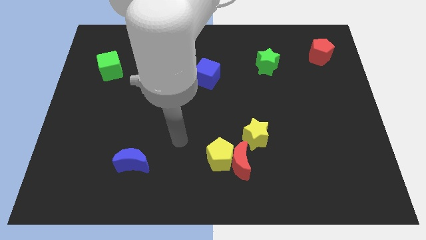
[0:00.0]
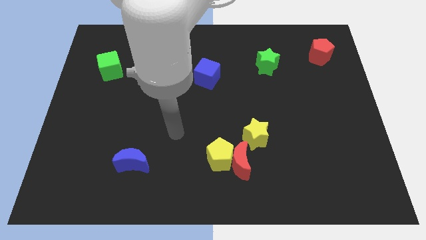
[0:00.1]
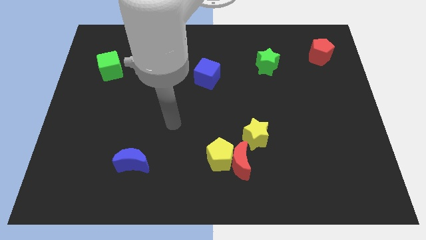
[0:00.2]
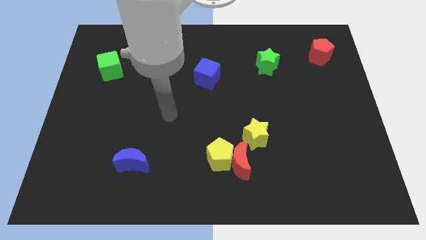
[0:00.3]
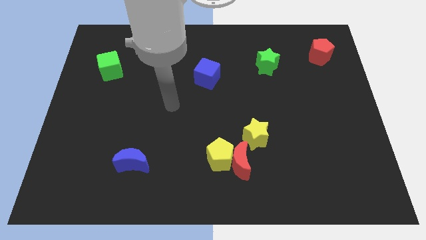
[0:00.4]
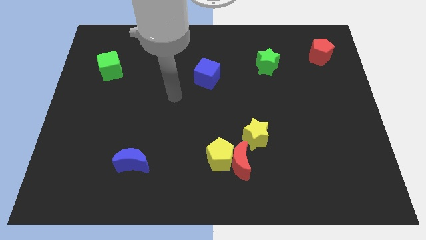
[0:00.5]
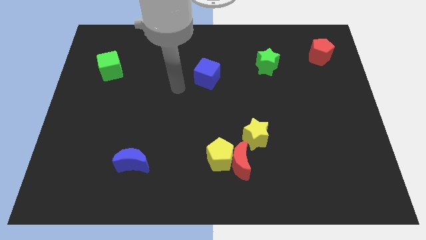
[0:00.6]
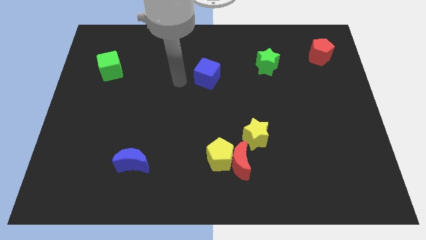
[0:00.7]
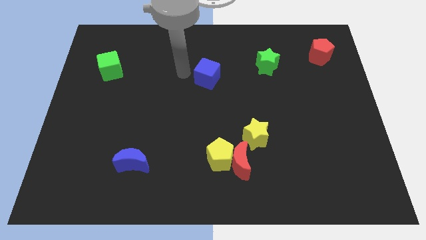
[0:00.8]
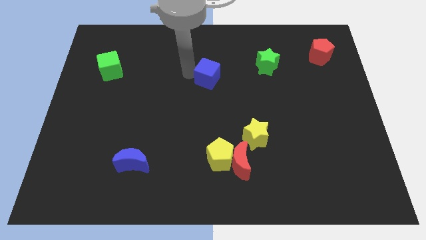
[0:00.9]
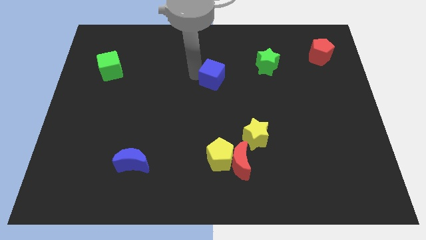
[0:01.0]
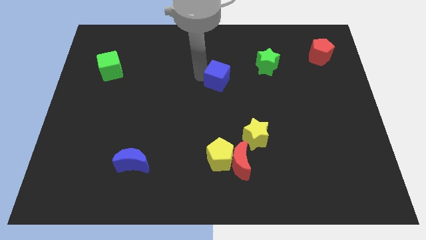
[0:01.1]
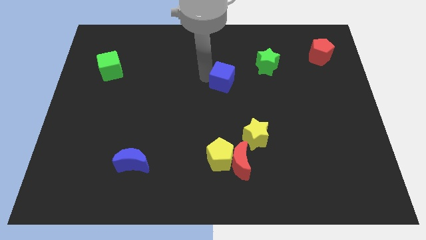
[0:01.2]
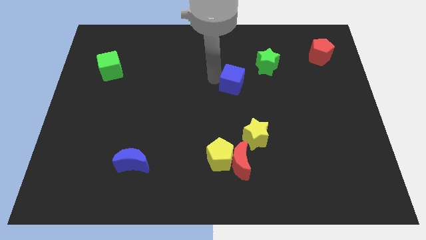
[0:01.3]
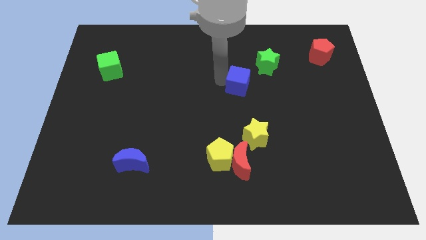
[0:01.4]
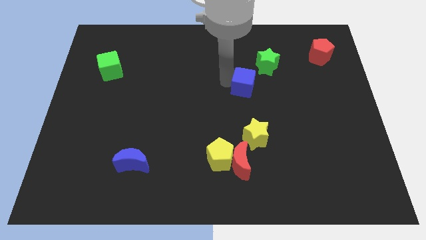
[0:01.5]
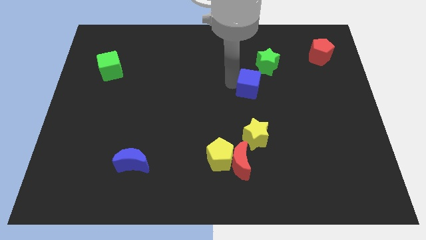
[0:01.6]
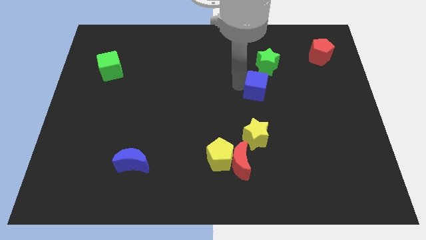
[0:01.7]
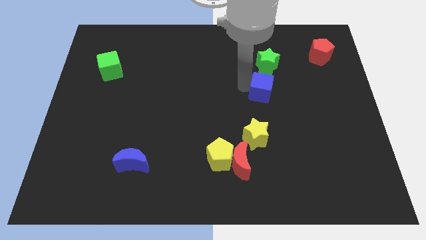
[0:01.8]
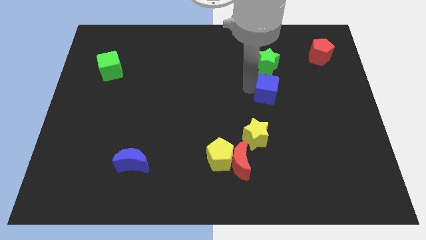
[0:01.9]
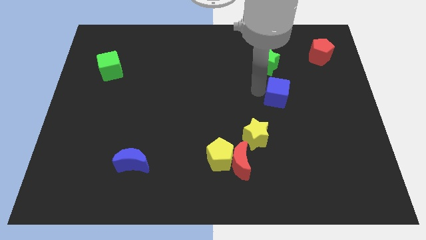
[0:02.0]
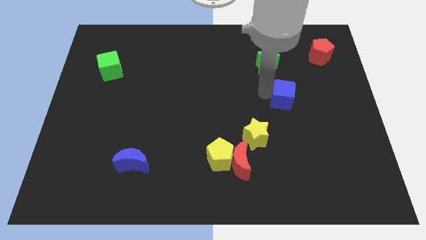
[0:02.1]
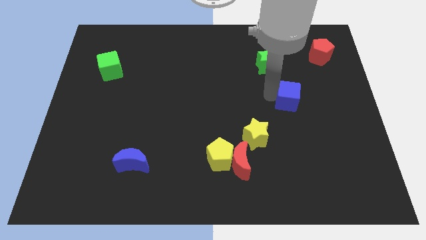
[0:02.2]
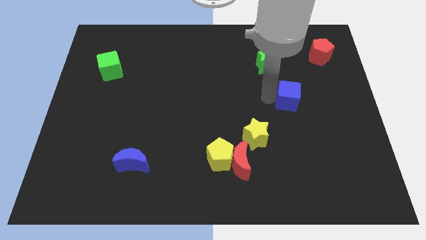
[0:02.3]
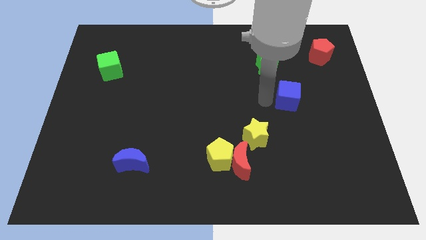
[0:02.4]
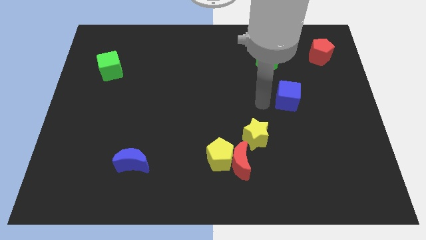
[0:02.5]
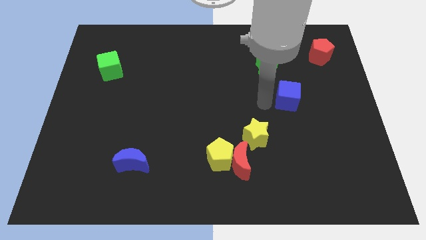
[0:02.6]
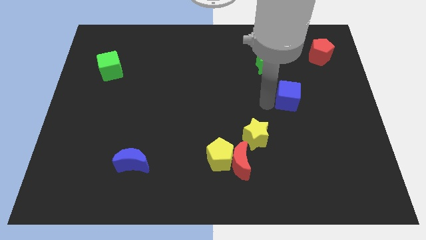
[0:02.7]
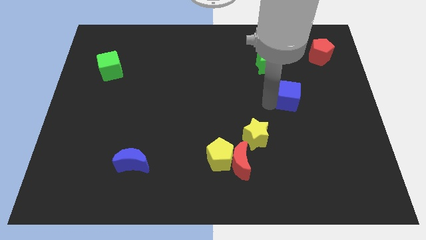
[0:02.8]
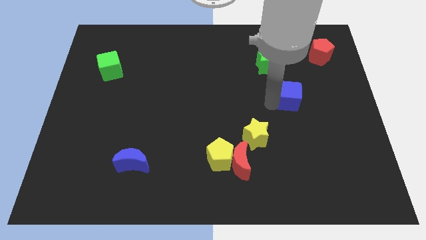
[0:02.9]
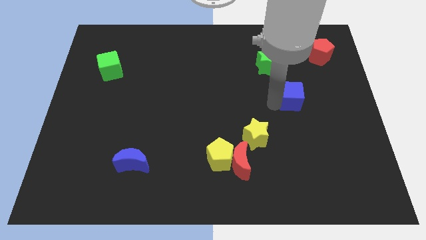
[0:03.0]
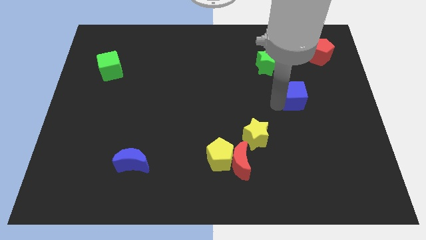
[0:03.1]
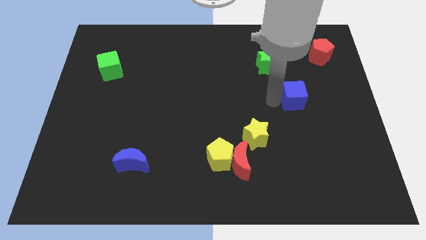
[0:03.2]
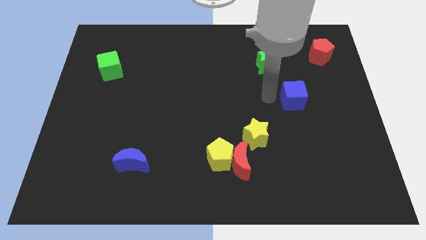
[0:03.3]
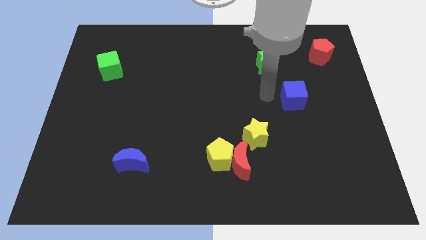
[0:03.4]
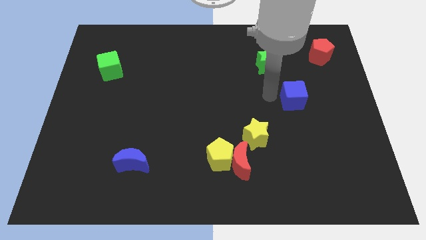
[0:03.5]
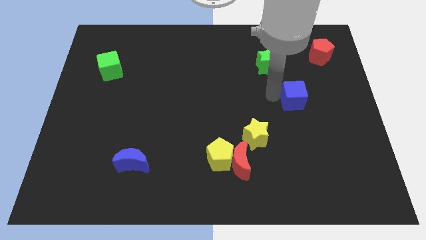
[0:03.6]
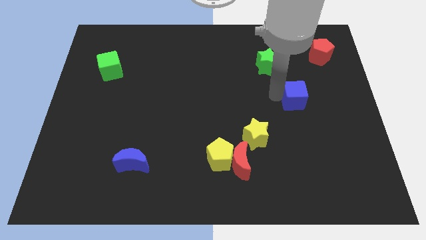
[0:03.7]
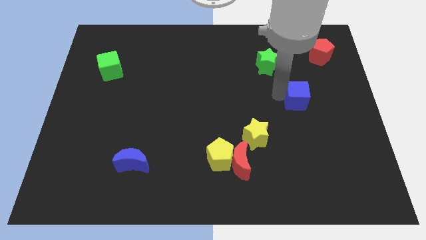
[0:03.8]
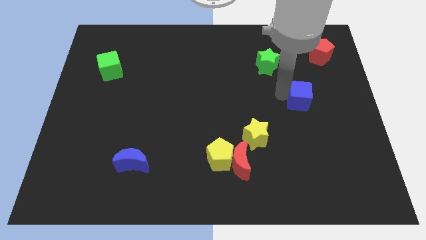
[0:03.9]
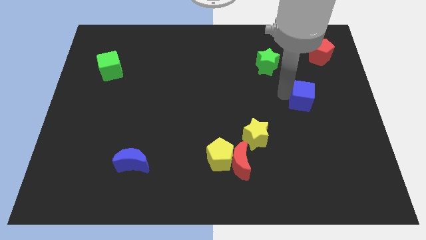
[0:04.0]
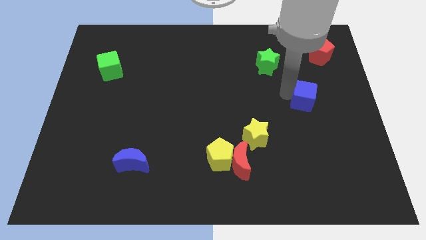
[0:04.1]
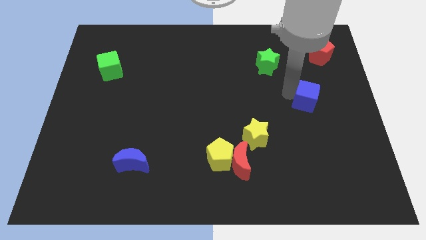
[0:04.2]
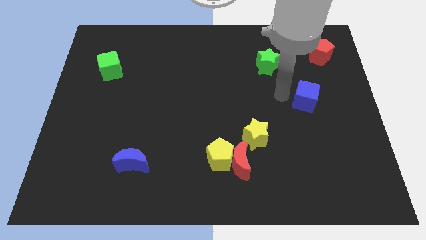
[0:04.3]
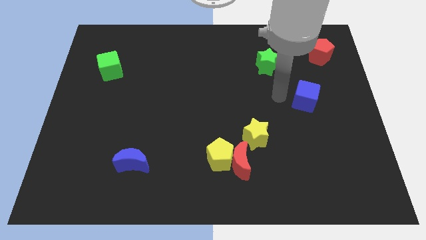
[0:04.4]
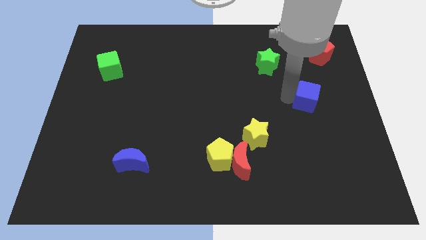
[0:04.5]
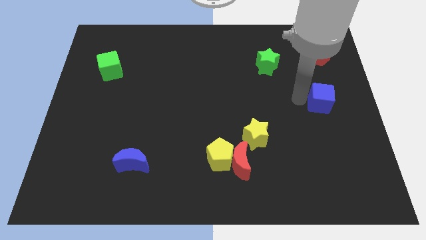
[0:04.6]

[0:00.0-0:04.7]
move the blue cube to the right side

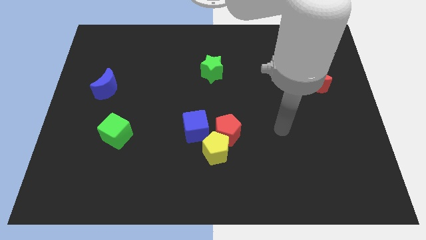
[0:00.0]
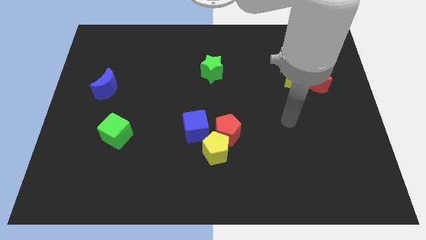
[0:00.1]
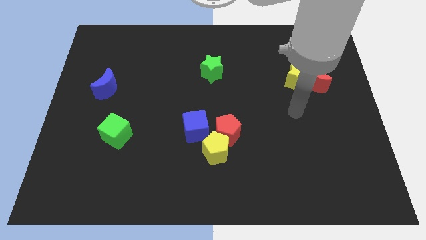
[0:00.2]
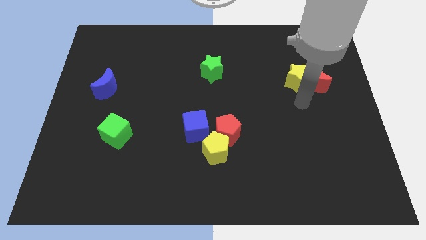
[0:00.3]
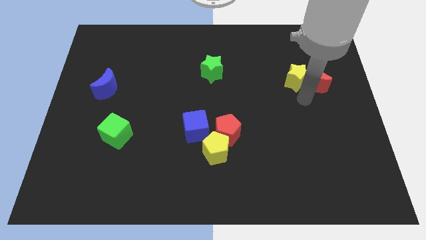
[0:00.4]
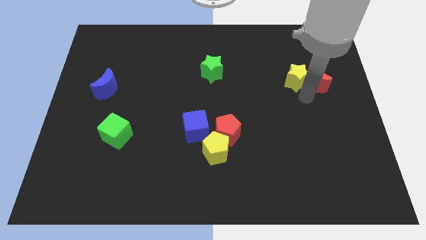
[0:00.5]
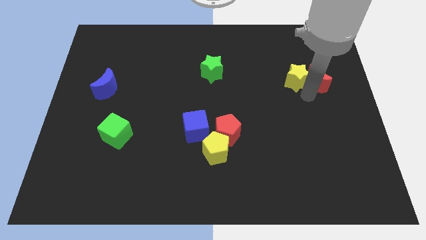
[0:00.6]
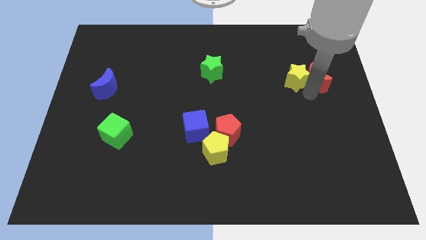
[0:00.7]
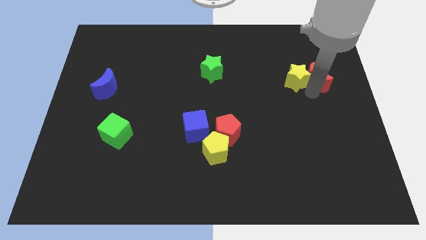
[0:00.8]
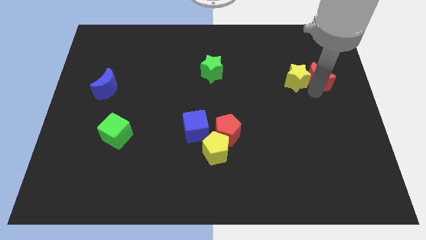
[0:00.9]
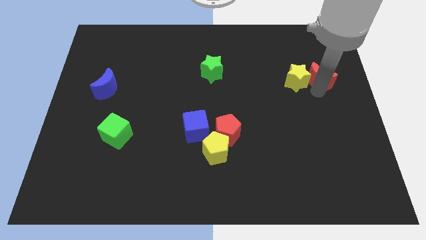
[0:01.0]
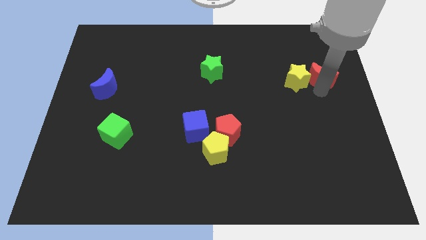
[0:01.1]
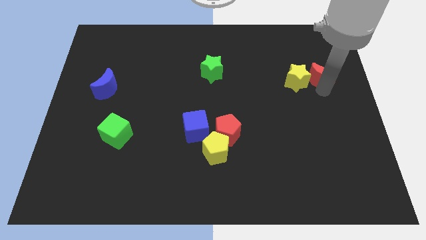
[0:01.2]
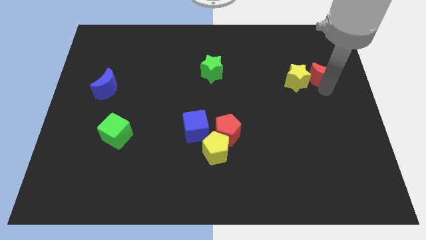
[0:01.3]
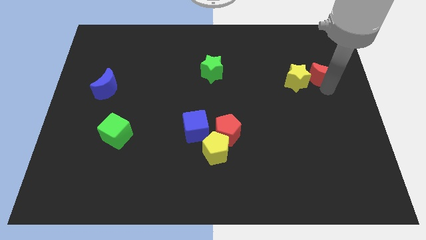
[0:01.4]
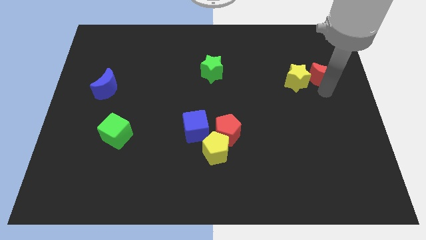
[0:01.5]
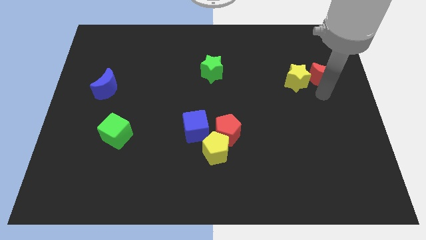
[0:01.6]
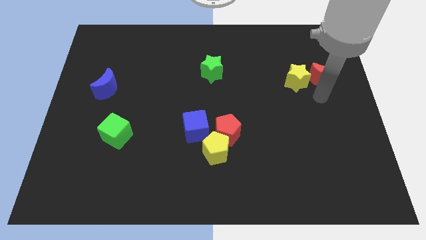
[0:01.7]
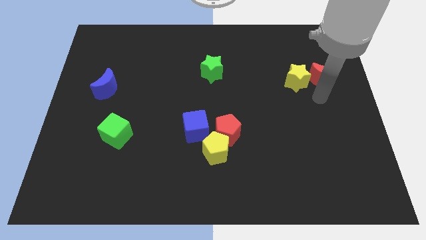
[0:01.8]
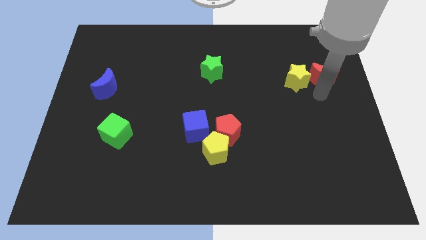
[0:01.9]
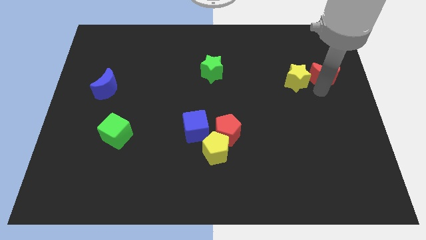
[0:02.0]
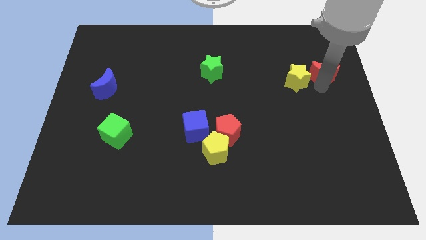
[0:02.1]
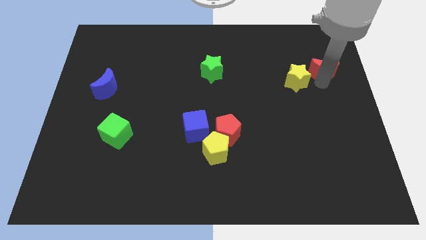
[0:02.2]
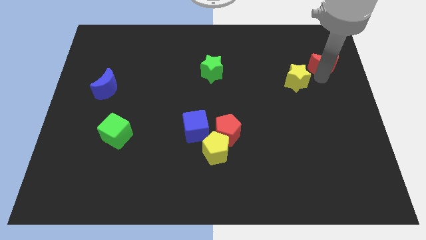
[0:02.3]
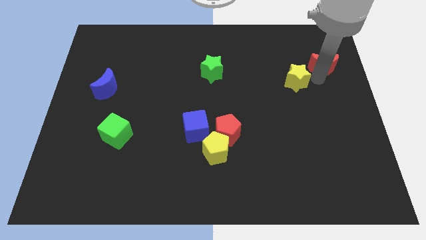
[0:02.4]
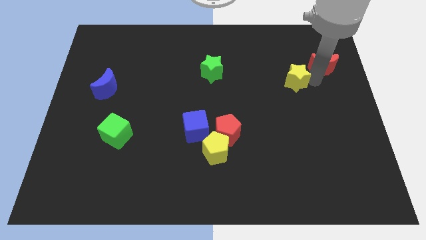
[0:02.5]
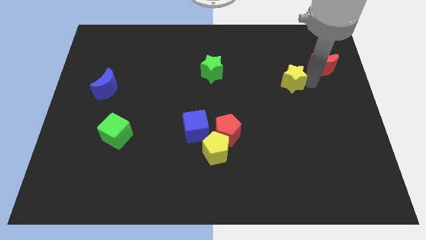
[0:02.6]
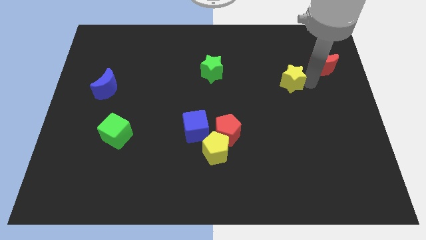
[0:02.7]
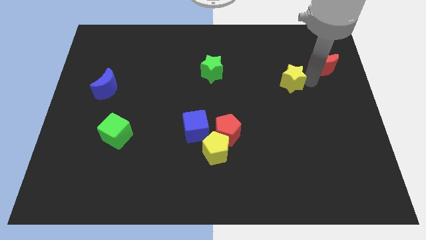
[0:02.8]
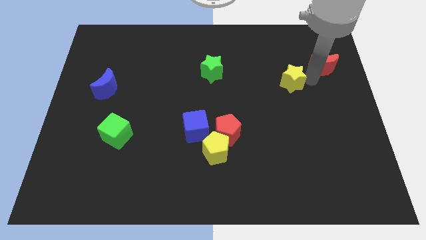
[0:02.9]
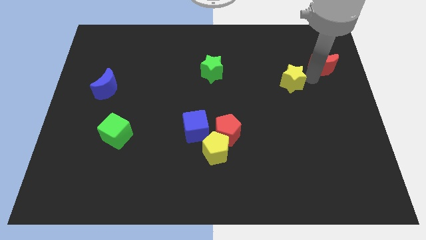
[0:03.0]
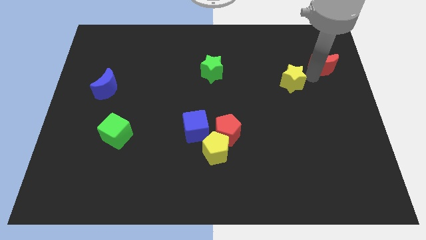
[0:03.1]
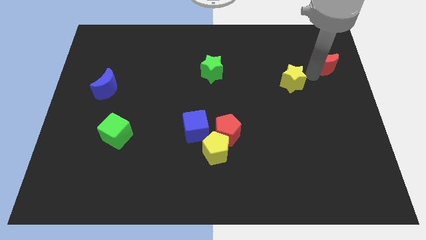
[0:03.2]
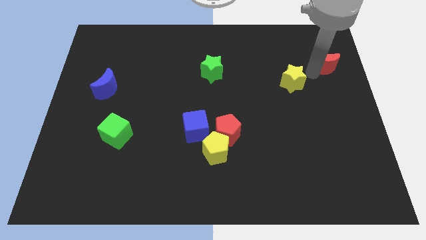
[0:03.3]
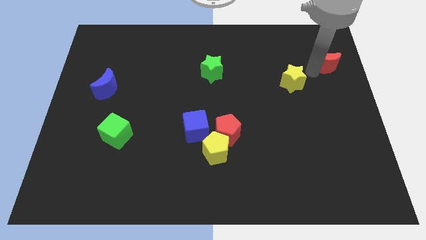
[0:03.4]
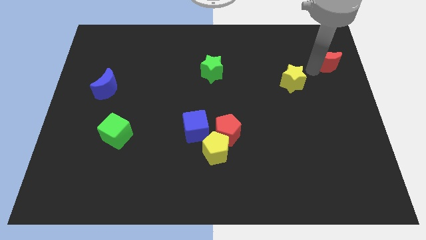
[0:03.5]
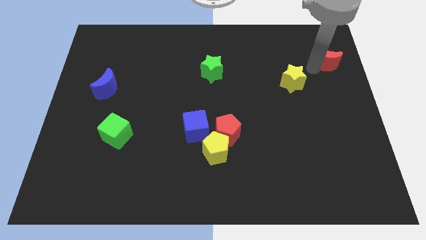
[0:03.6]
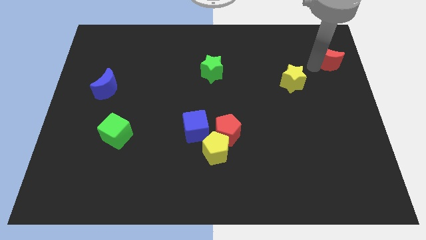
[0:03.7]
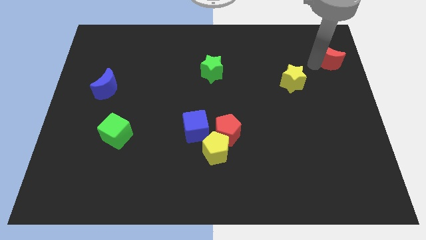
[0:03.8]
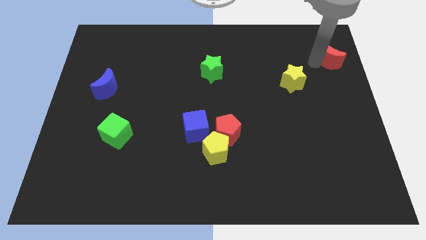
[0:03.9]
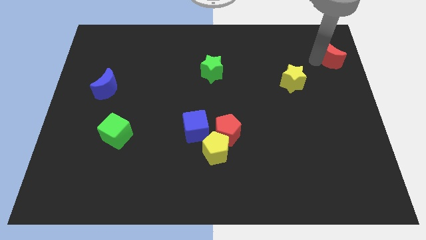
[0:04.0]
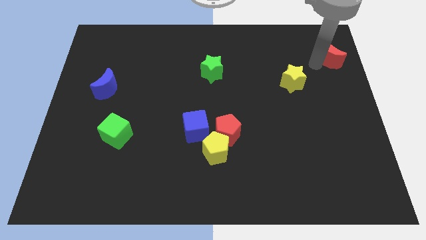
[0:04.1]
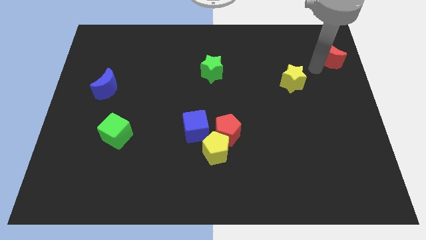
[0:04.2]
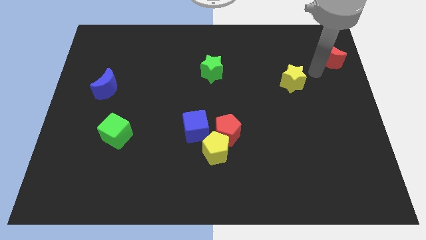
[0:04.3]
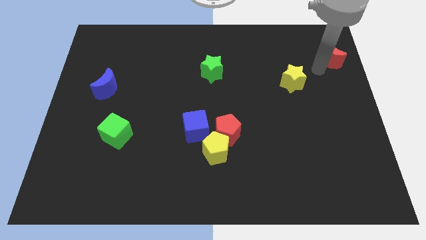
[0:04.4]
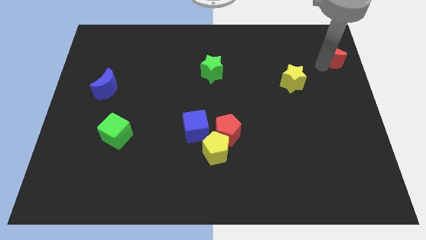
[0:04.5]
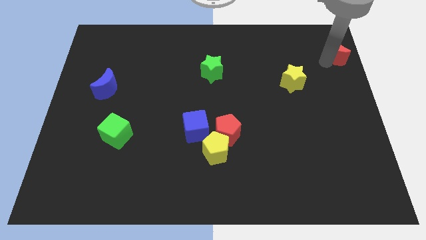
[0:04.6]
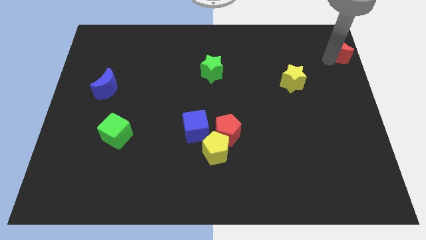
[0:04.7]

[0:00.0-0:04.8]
move the red moon to the top right of the board
